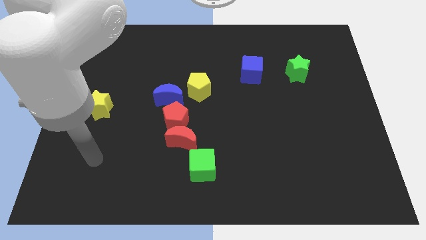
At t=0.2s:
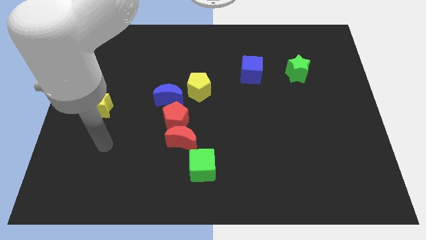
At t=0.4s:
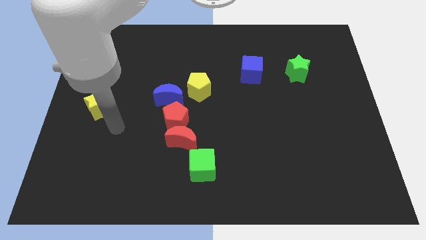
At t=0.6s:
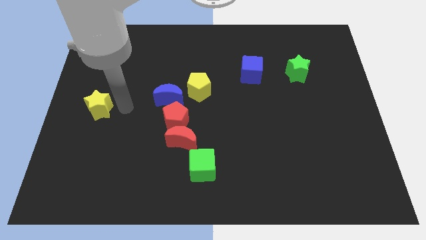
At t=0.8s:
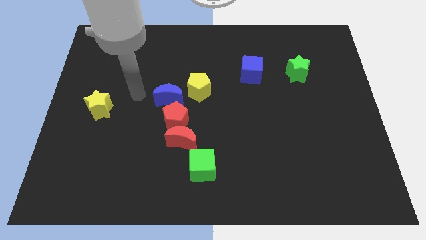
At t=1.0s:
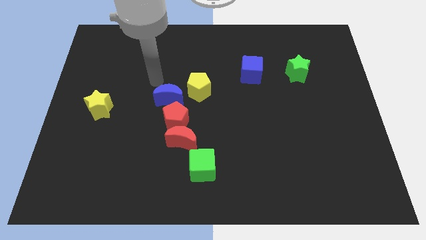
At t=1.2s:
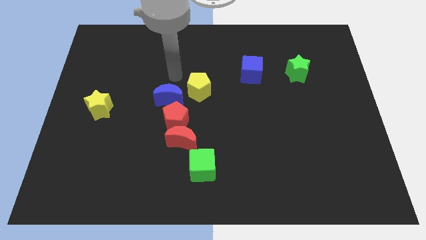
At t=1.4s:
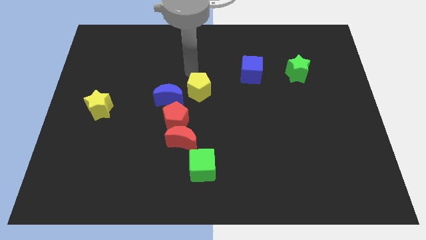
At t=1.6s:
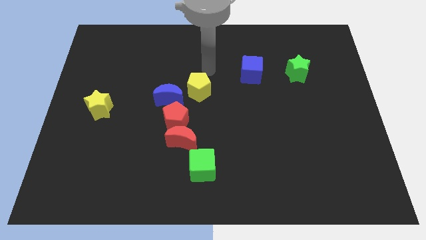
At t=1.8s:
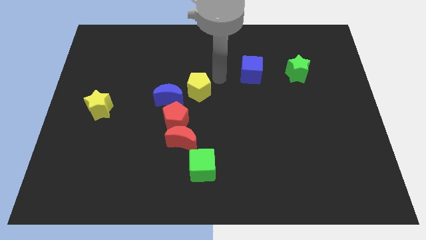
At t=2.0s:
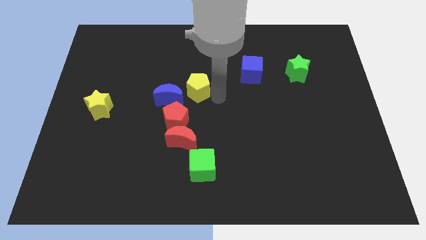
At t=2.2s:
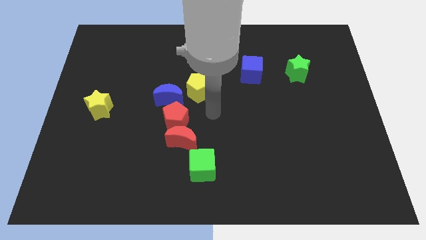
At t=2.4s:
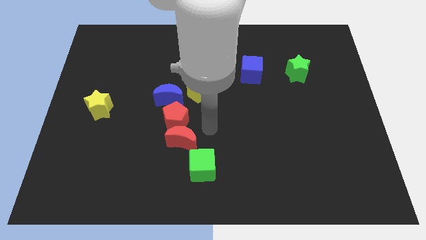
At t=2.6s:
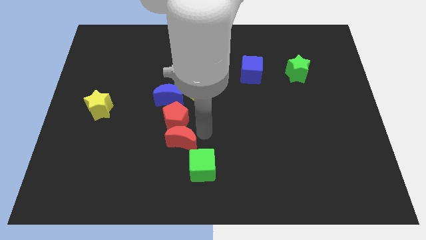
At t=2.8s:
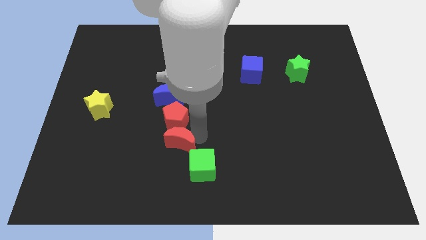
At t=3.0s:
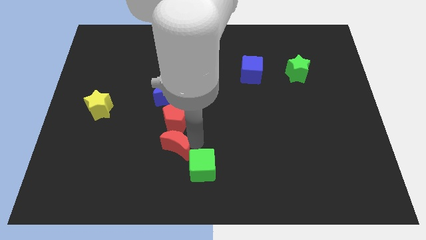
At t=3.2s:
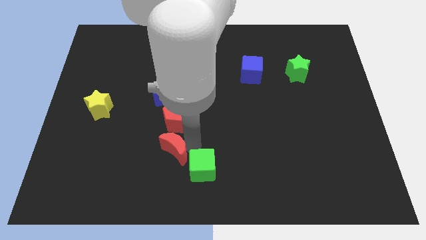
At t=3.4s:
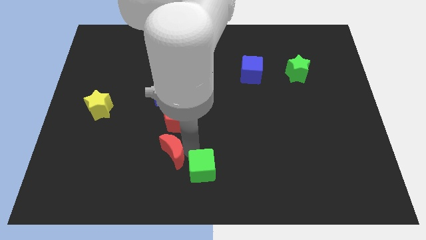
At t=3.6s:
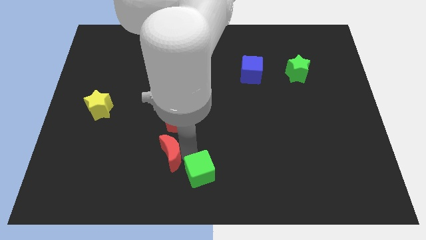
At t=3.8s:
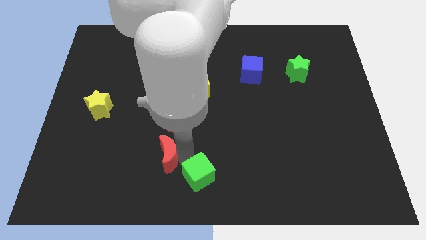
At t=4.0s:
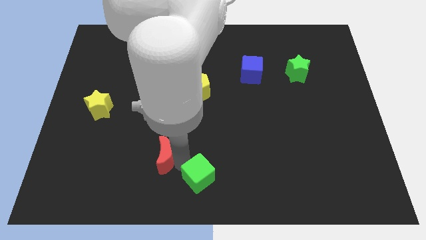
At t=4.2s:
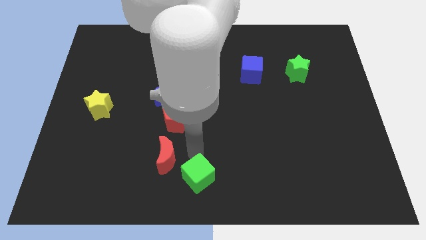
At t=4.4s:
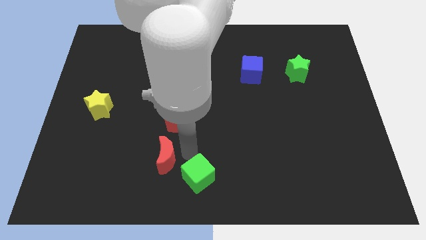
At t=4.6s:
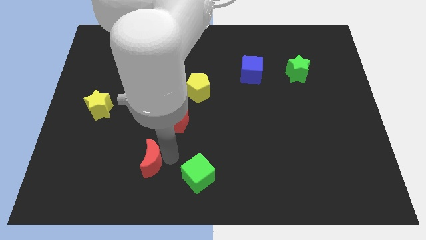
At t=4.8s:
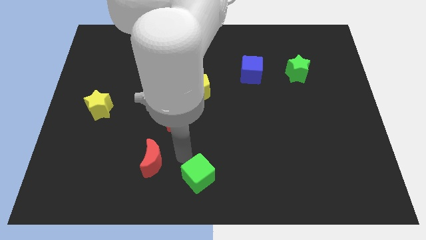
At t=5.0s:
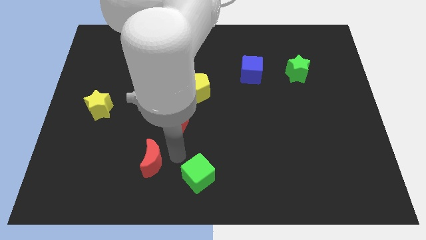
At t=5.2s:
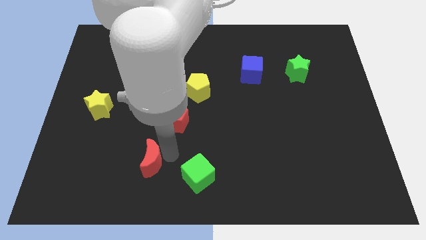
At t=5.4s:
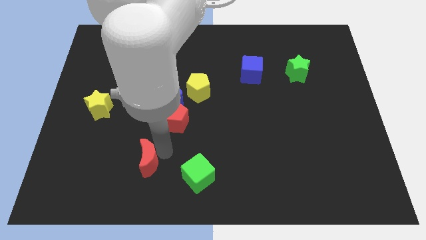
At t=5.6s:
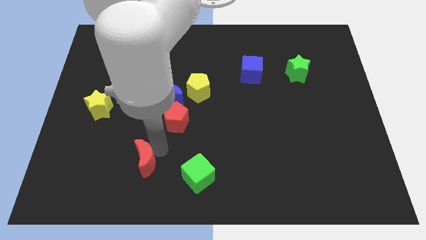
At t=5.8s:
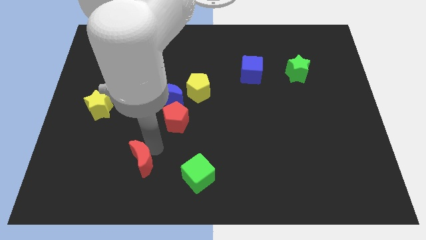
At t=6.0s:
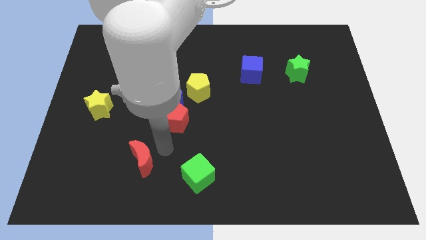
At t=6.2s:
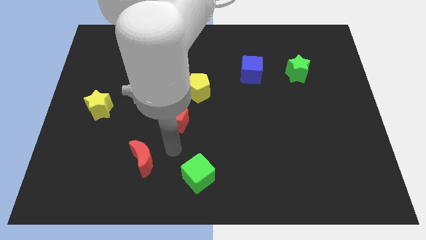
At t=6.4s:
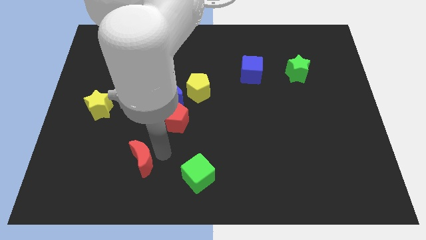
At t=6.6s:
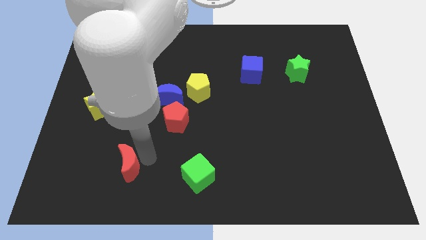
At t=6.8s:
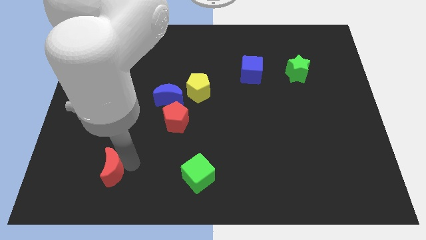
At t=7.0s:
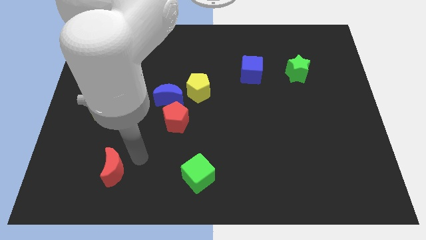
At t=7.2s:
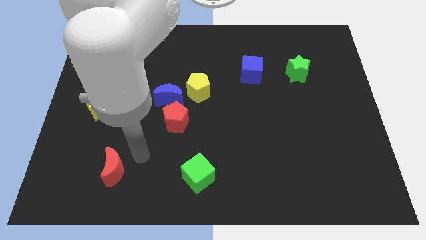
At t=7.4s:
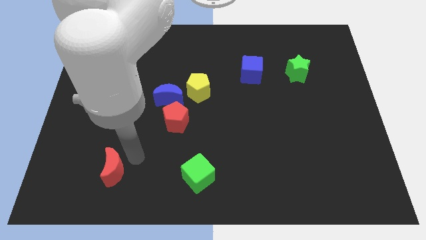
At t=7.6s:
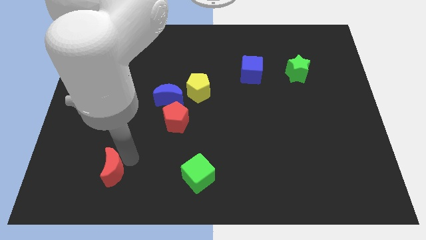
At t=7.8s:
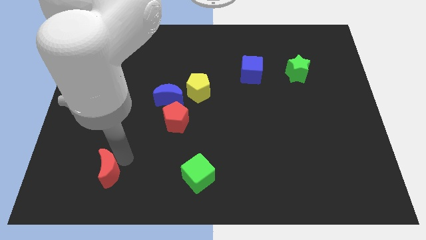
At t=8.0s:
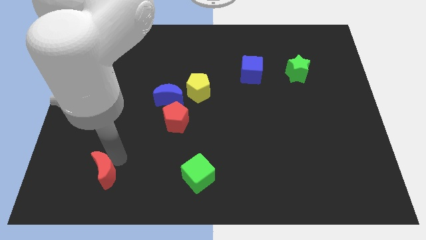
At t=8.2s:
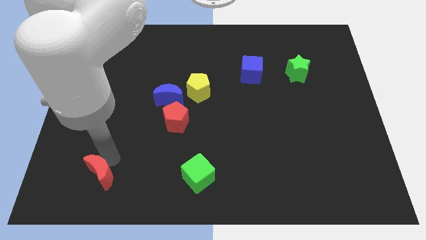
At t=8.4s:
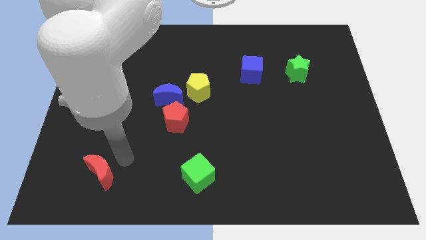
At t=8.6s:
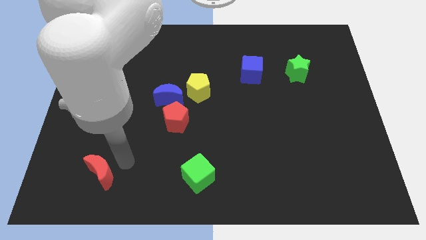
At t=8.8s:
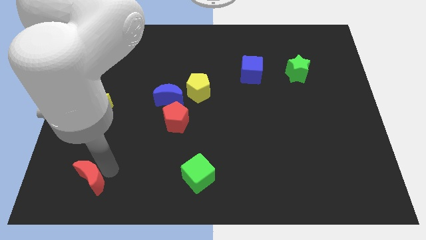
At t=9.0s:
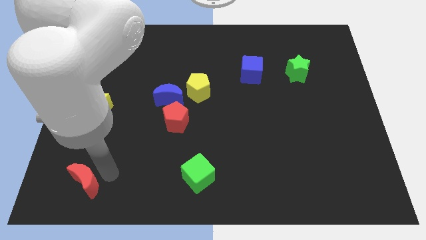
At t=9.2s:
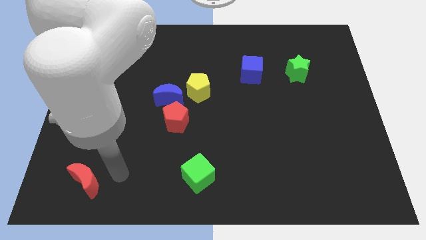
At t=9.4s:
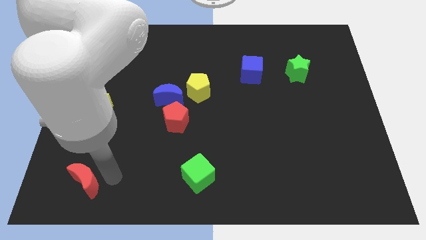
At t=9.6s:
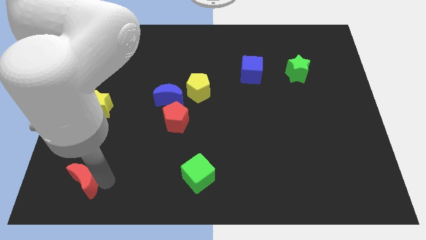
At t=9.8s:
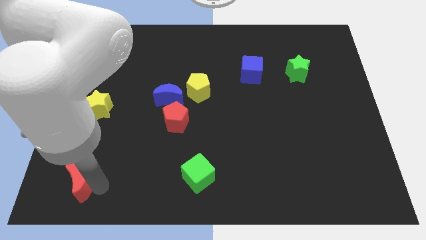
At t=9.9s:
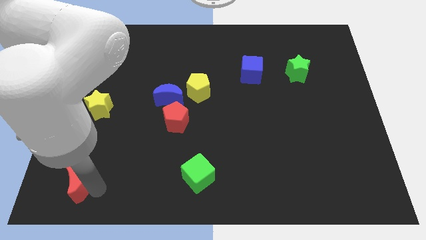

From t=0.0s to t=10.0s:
slide the red moon to the lower left corner

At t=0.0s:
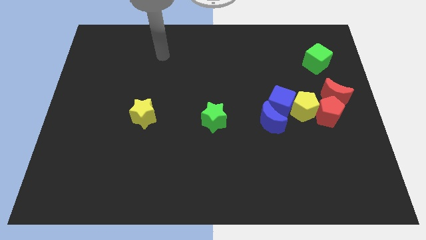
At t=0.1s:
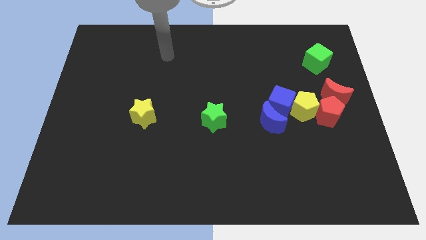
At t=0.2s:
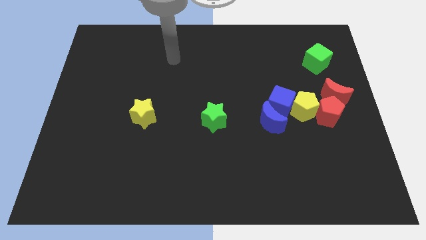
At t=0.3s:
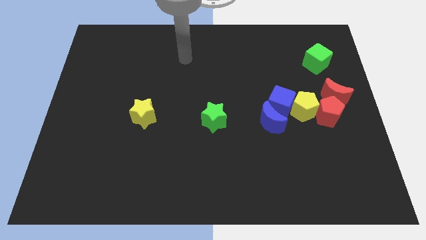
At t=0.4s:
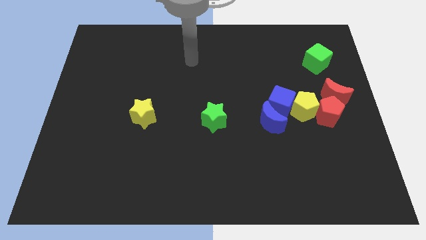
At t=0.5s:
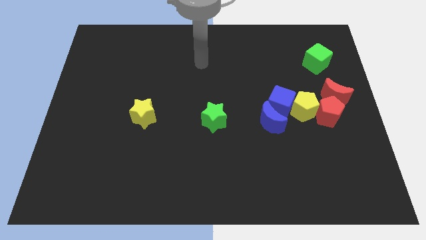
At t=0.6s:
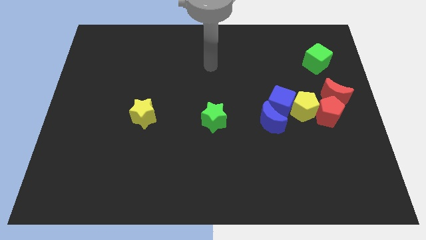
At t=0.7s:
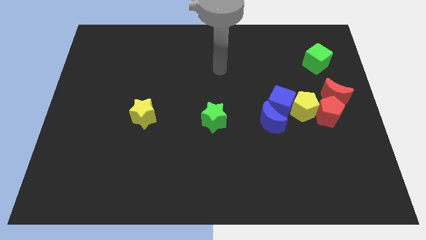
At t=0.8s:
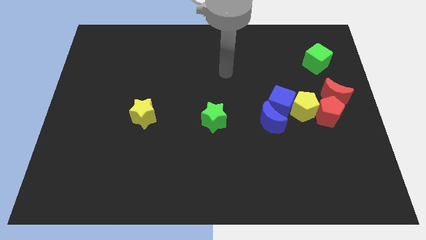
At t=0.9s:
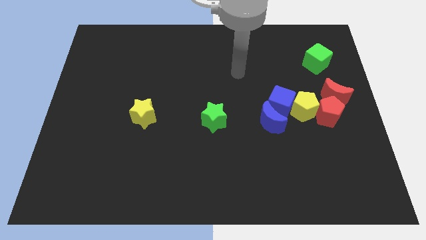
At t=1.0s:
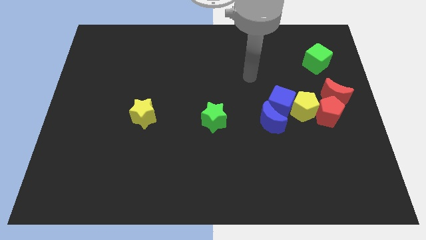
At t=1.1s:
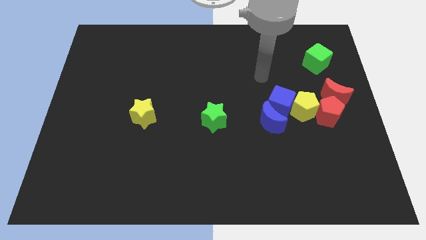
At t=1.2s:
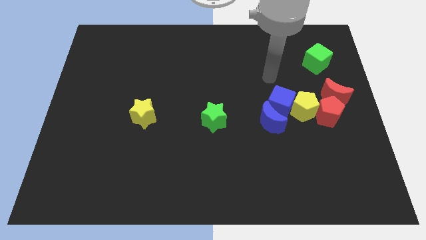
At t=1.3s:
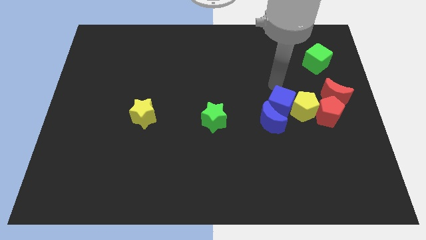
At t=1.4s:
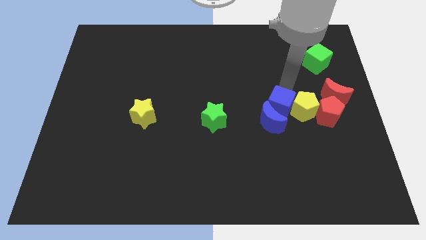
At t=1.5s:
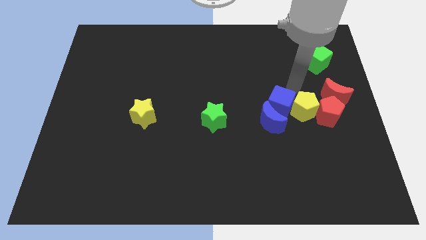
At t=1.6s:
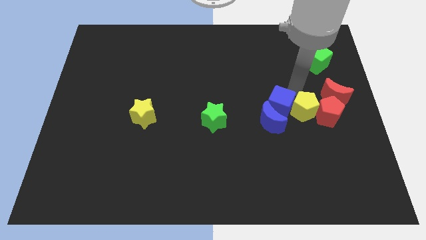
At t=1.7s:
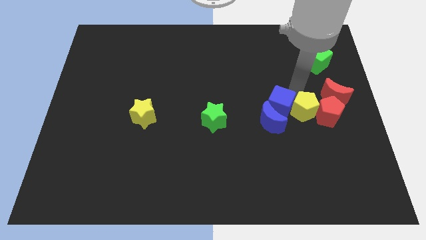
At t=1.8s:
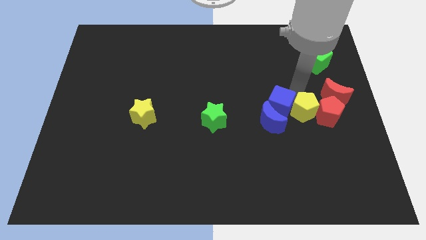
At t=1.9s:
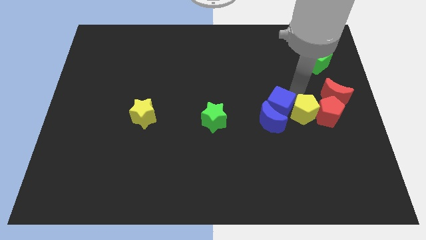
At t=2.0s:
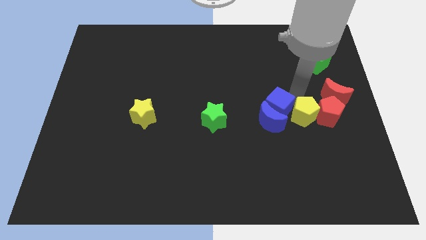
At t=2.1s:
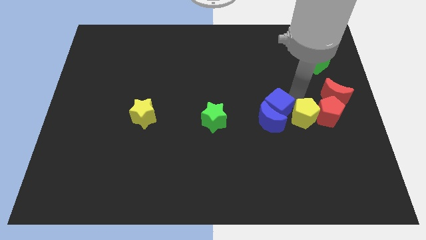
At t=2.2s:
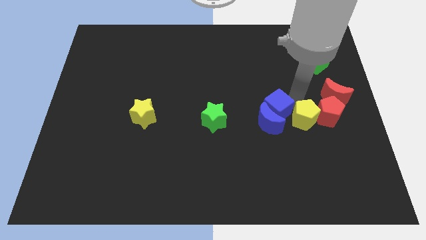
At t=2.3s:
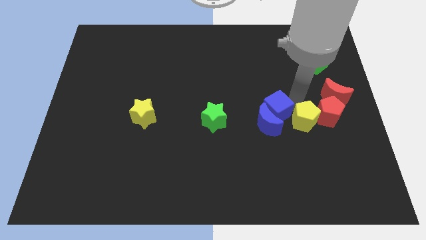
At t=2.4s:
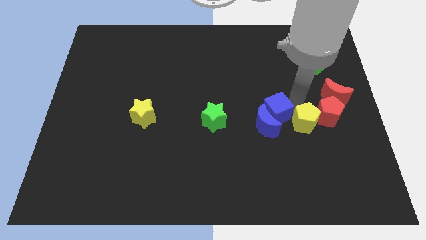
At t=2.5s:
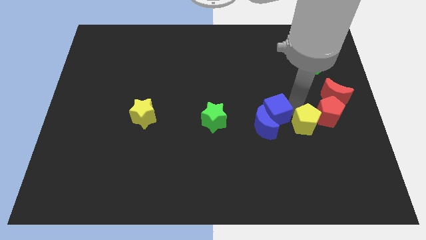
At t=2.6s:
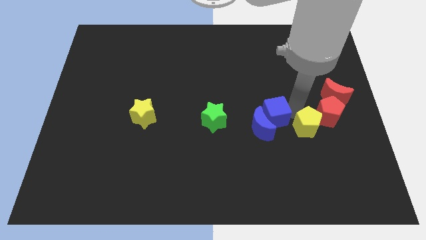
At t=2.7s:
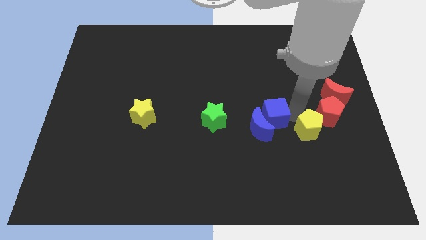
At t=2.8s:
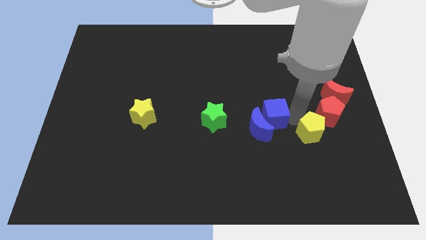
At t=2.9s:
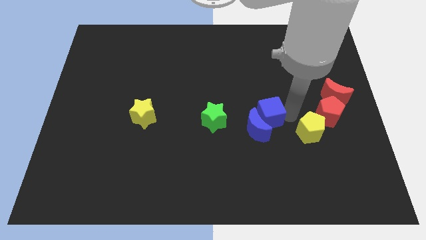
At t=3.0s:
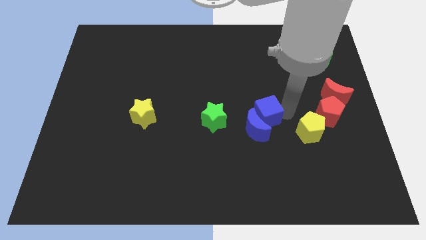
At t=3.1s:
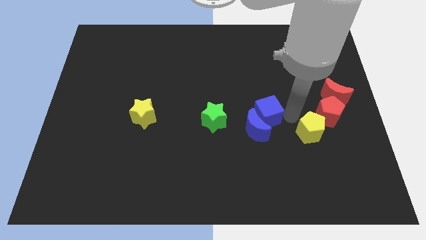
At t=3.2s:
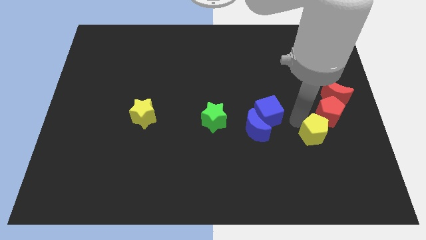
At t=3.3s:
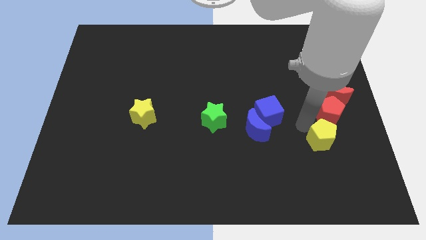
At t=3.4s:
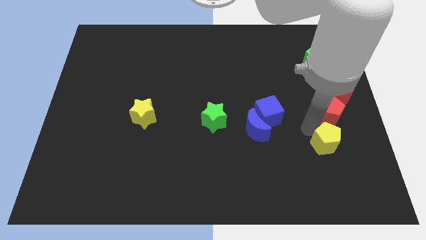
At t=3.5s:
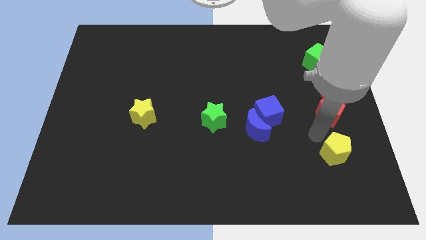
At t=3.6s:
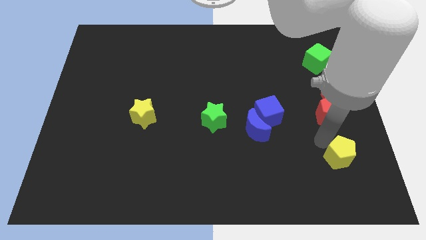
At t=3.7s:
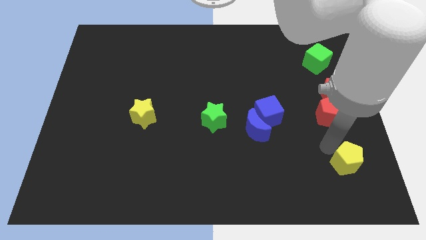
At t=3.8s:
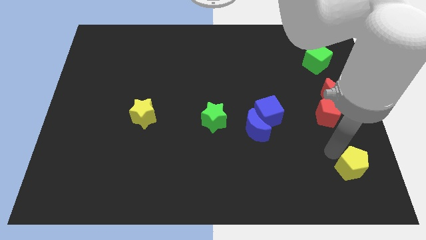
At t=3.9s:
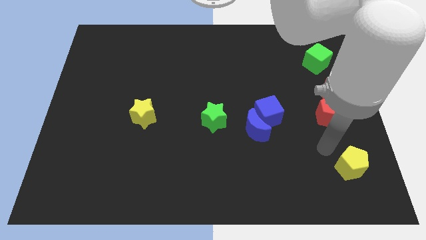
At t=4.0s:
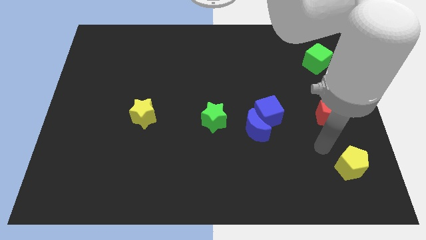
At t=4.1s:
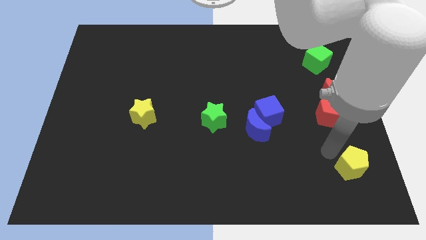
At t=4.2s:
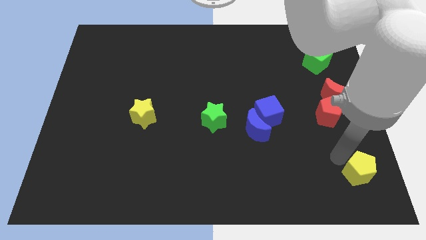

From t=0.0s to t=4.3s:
put the yellow pentagon to the bottom right
